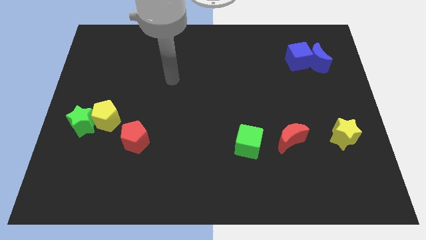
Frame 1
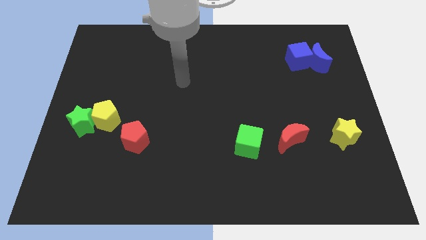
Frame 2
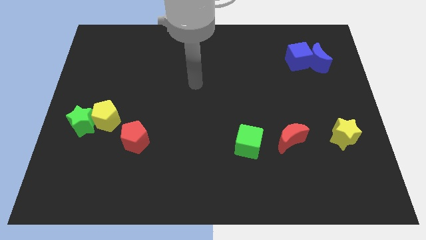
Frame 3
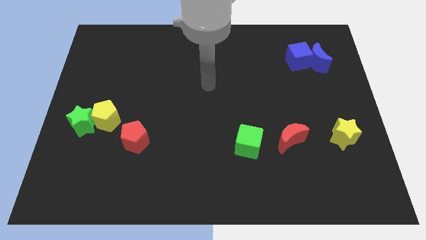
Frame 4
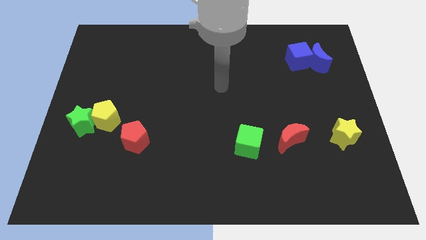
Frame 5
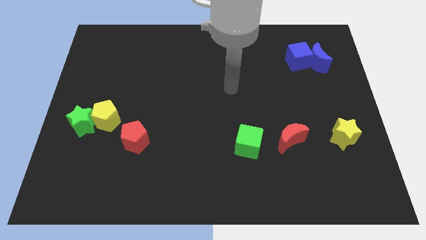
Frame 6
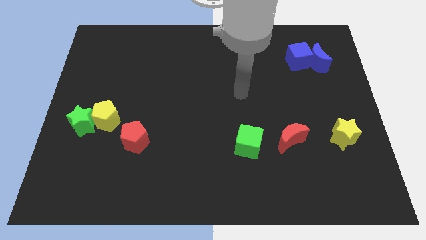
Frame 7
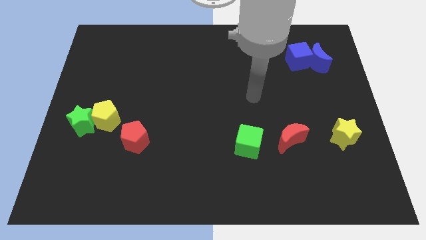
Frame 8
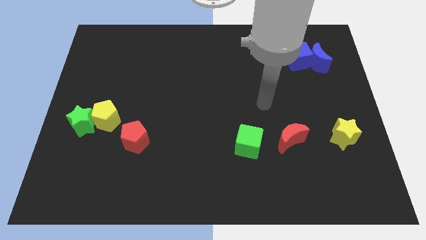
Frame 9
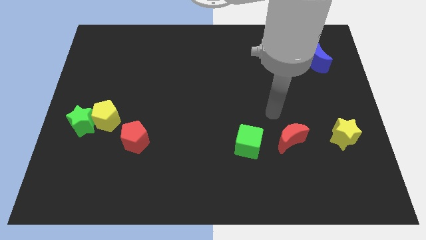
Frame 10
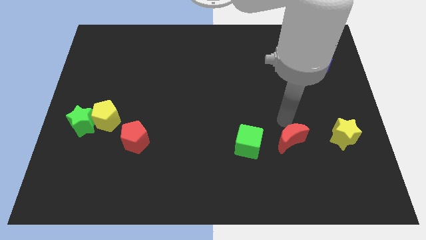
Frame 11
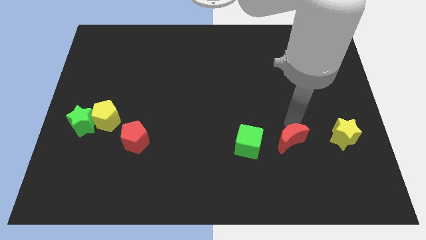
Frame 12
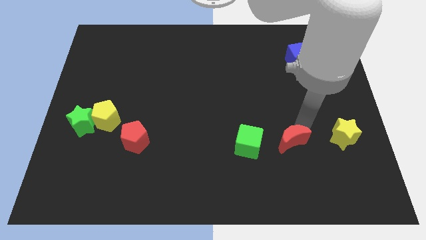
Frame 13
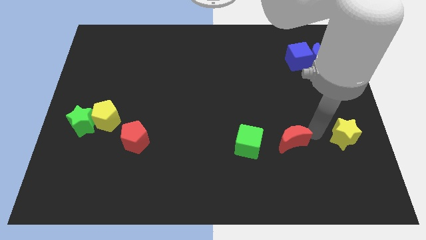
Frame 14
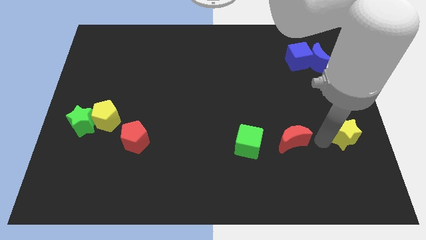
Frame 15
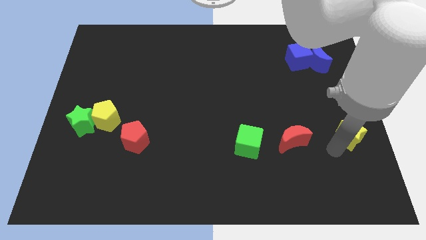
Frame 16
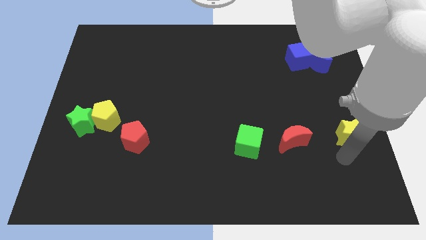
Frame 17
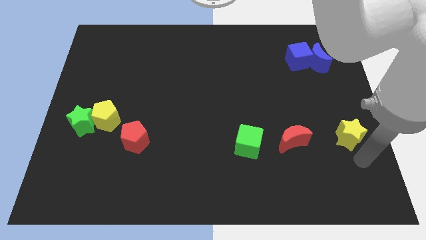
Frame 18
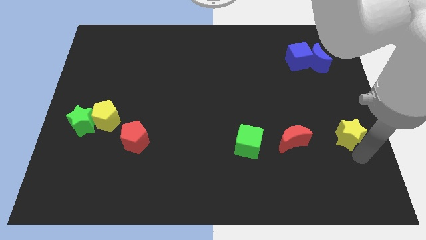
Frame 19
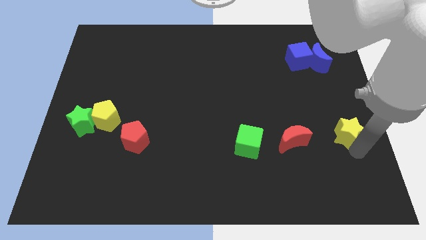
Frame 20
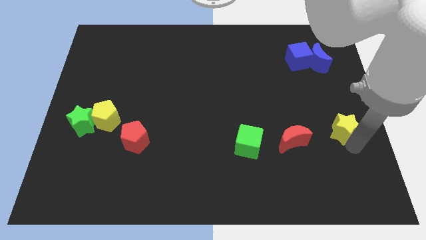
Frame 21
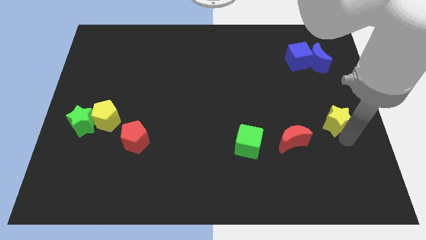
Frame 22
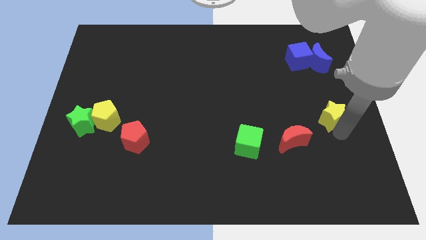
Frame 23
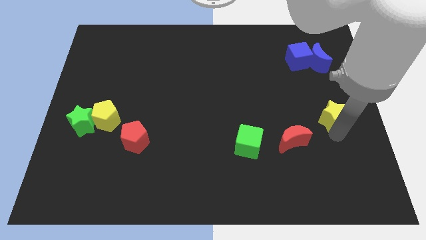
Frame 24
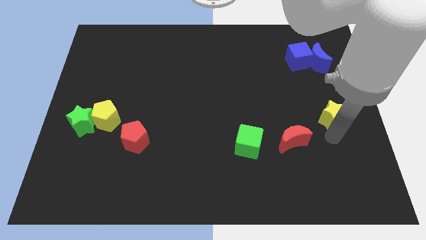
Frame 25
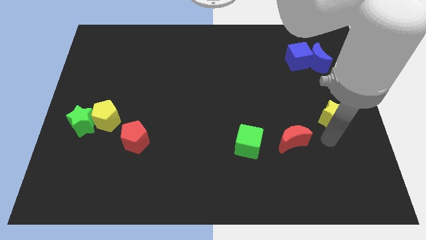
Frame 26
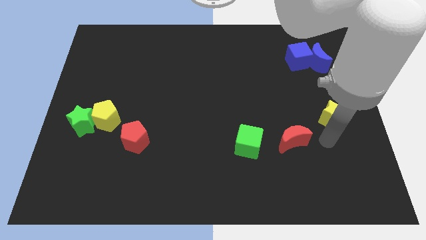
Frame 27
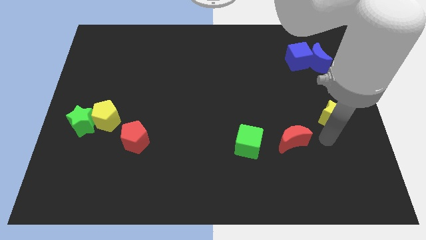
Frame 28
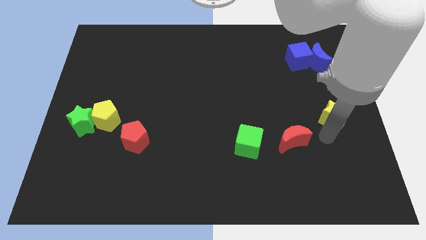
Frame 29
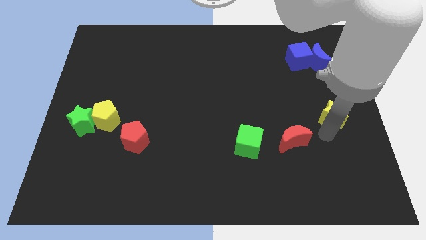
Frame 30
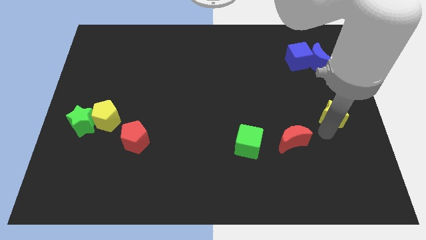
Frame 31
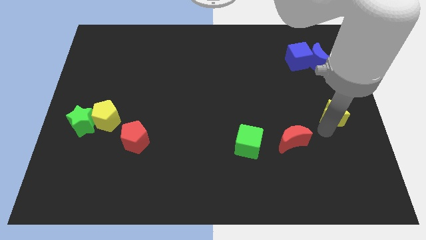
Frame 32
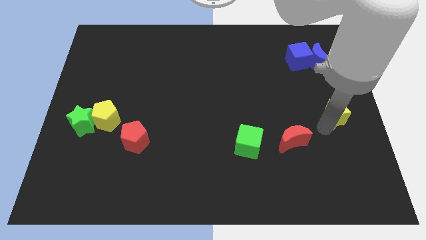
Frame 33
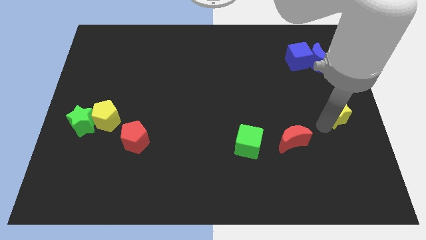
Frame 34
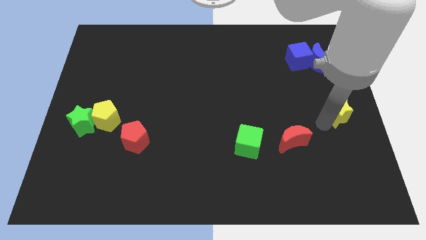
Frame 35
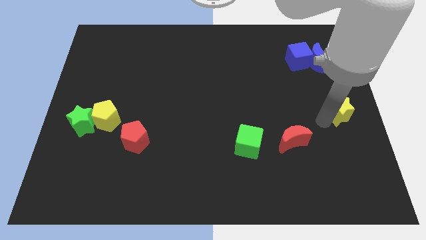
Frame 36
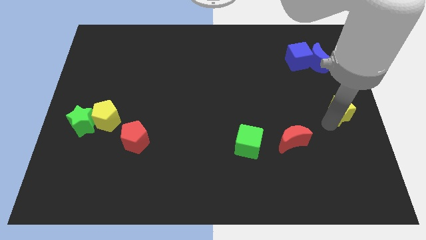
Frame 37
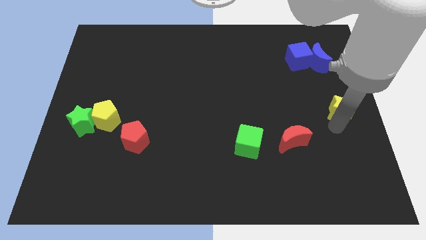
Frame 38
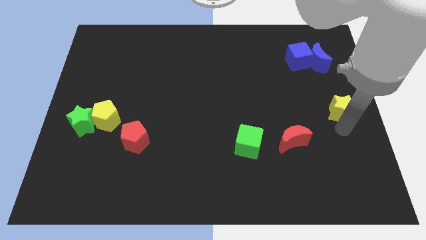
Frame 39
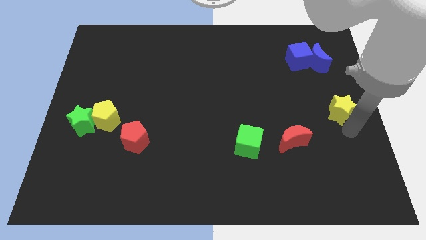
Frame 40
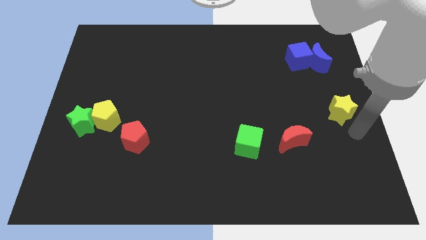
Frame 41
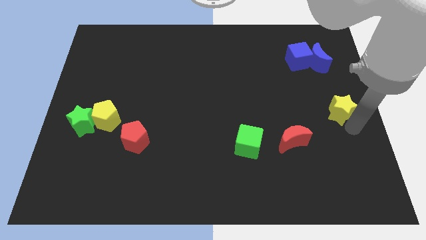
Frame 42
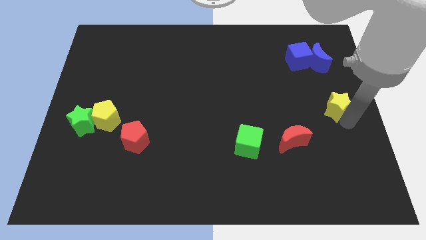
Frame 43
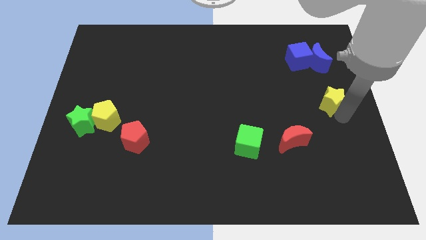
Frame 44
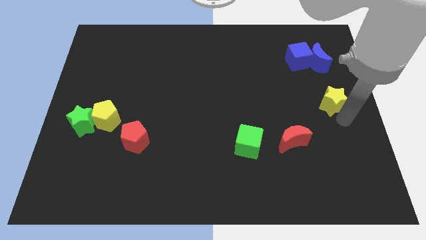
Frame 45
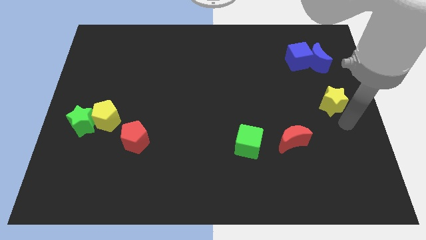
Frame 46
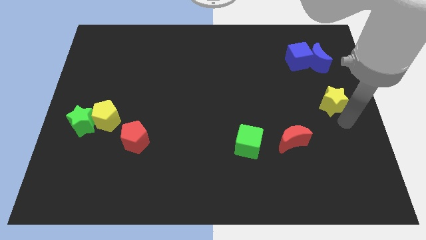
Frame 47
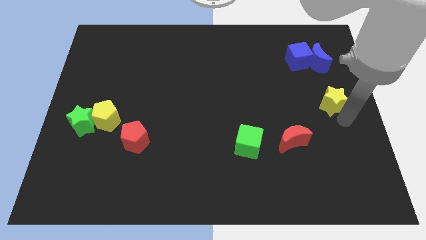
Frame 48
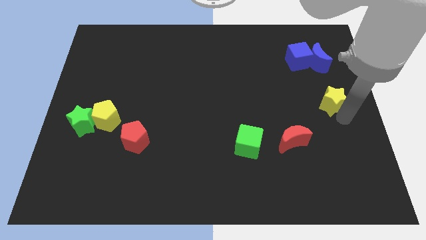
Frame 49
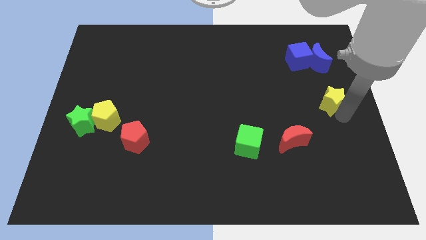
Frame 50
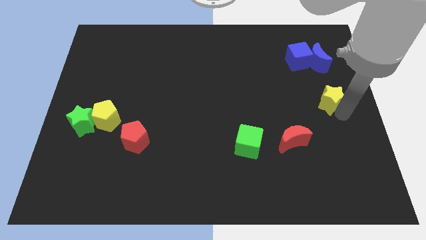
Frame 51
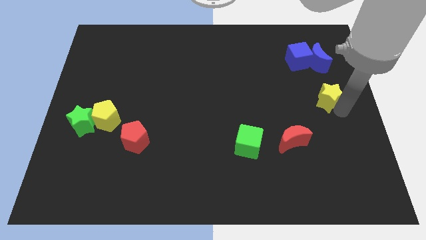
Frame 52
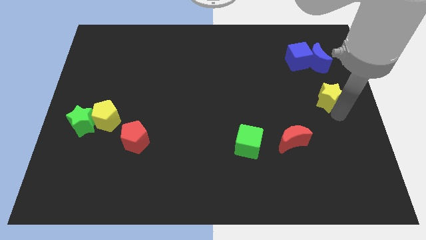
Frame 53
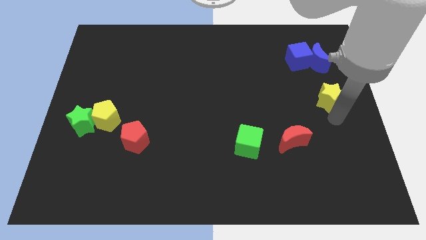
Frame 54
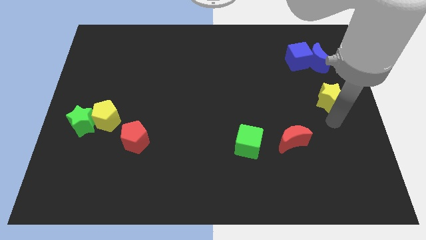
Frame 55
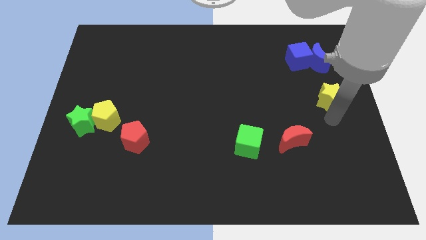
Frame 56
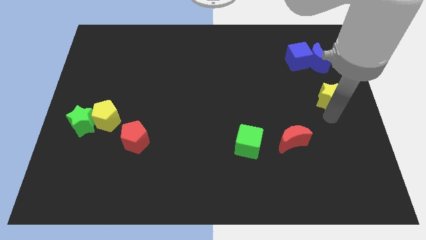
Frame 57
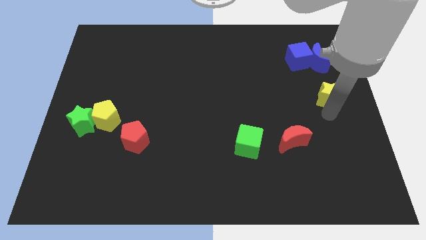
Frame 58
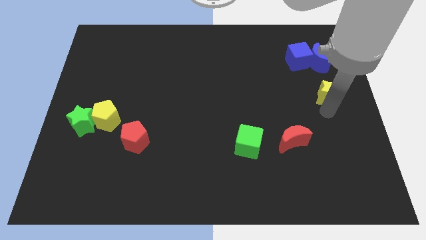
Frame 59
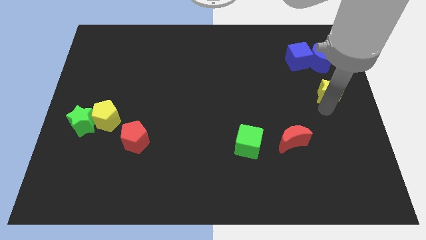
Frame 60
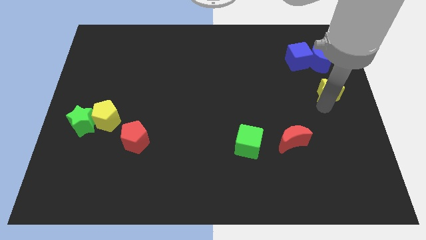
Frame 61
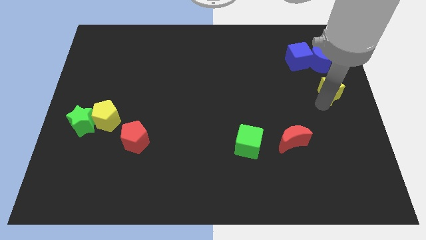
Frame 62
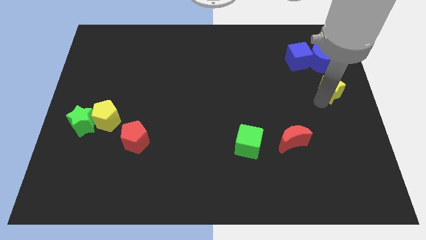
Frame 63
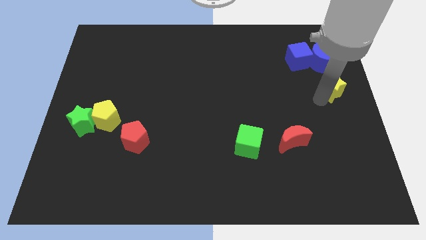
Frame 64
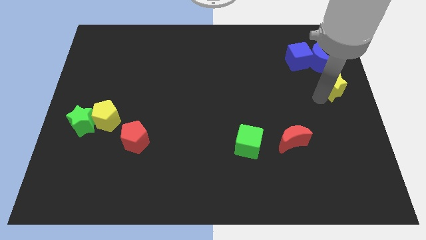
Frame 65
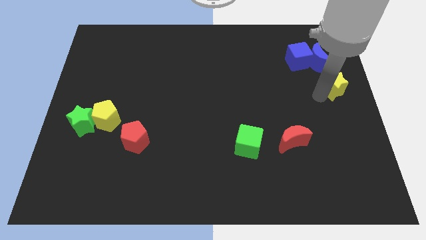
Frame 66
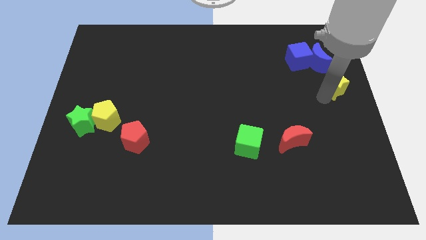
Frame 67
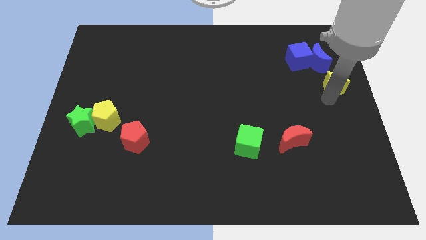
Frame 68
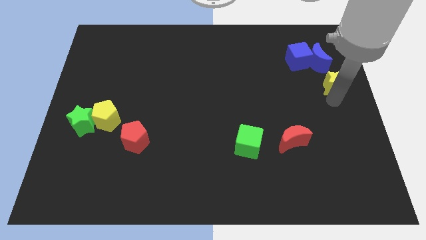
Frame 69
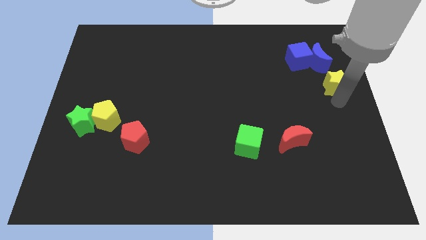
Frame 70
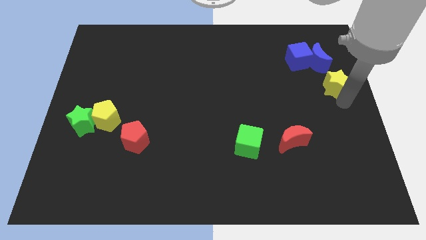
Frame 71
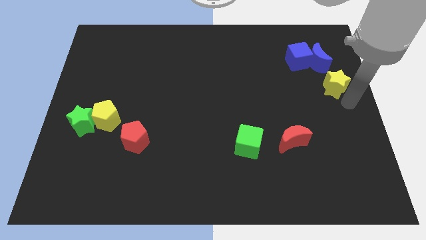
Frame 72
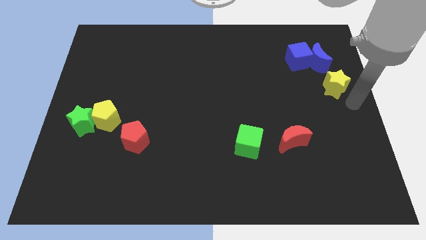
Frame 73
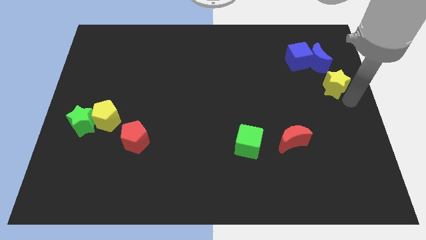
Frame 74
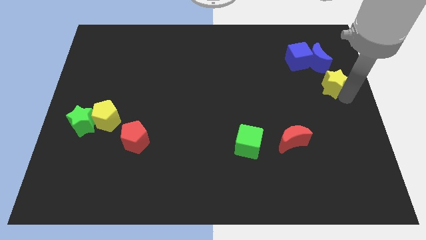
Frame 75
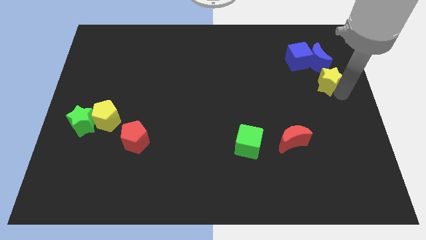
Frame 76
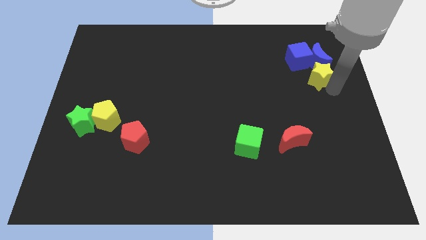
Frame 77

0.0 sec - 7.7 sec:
put the yellow star close to the blue moon

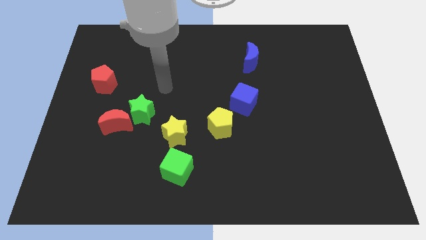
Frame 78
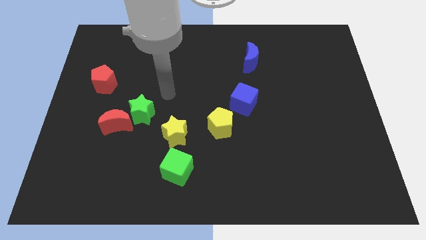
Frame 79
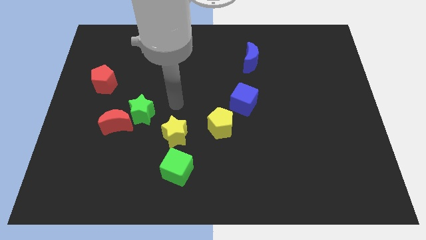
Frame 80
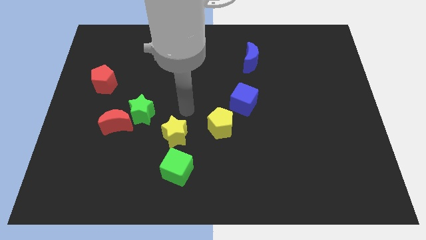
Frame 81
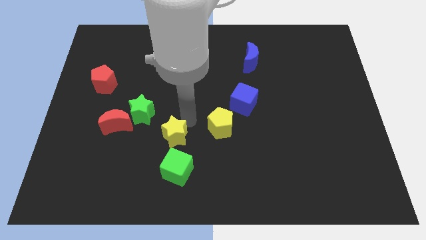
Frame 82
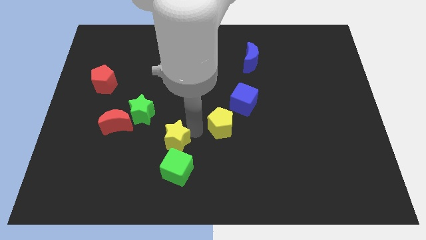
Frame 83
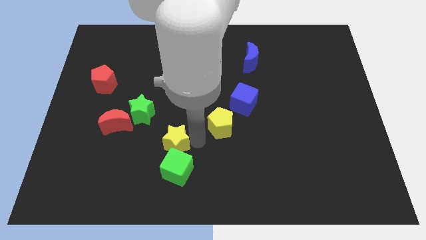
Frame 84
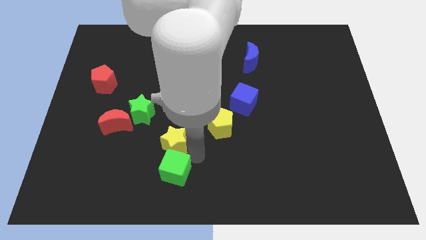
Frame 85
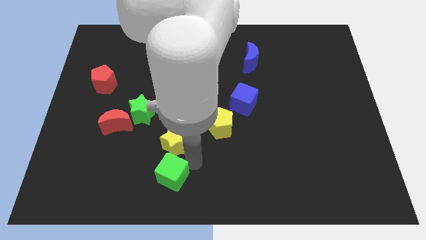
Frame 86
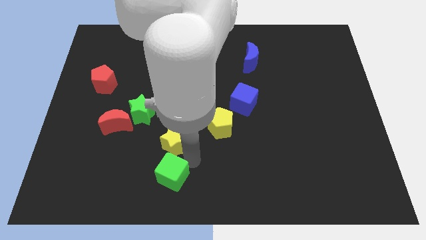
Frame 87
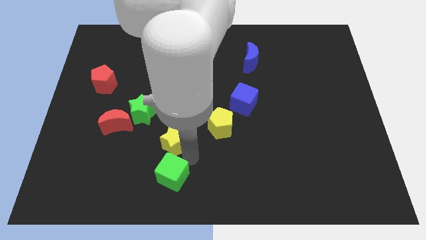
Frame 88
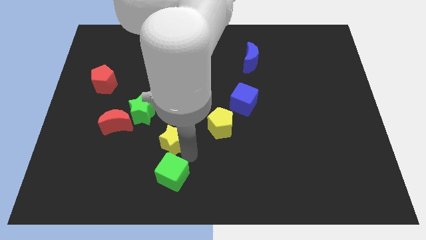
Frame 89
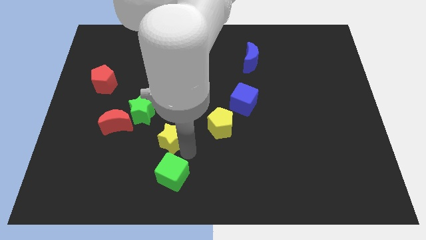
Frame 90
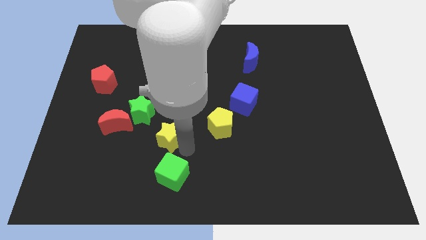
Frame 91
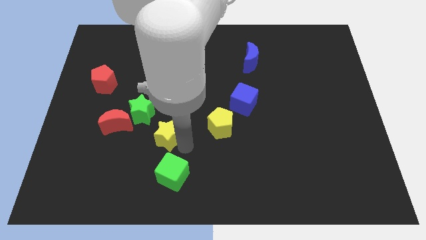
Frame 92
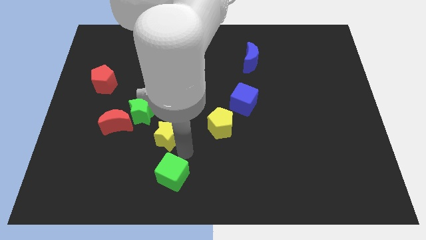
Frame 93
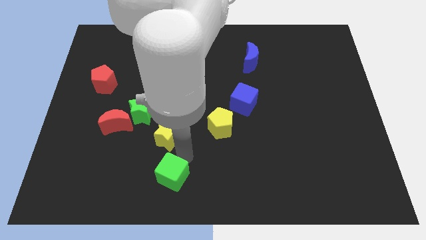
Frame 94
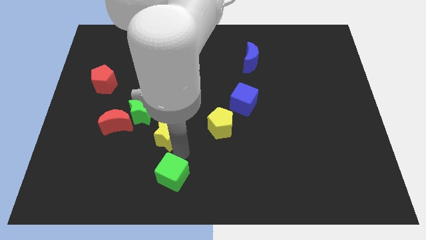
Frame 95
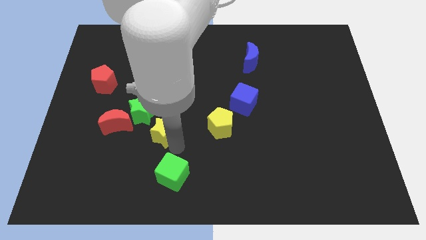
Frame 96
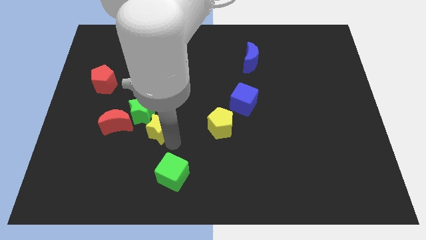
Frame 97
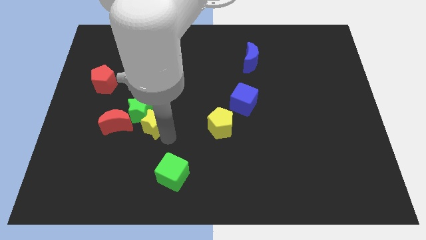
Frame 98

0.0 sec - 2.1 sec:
put the yellow star next to the green star
